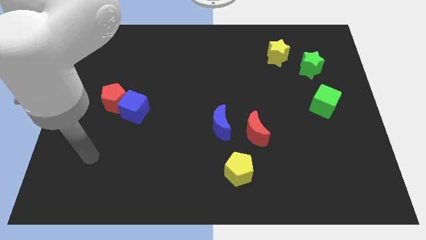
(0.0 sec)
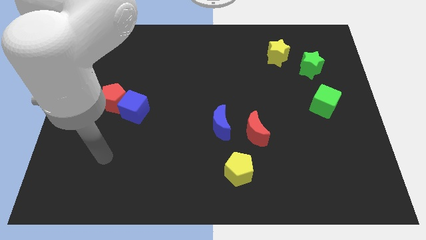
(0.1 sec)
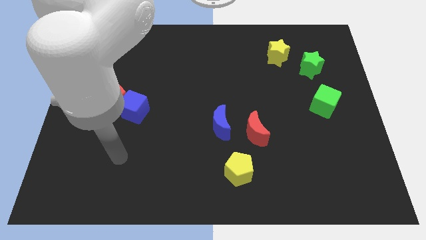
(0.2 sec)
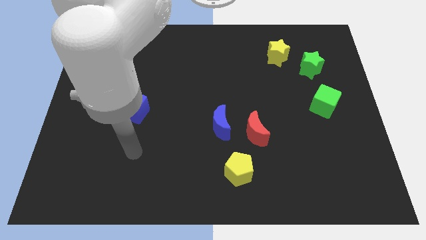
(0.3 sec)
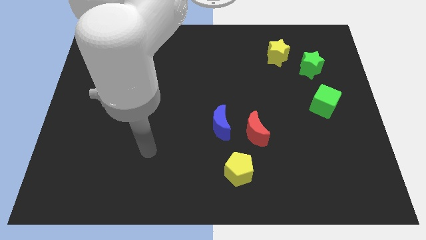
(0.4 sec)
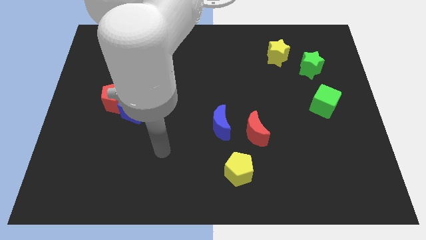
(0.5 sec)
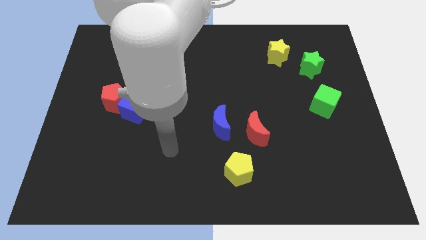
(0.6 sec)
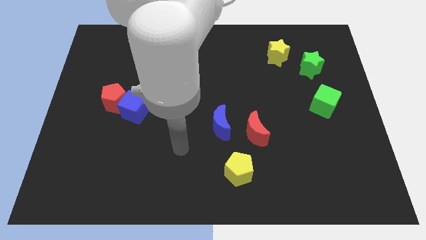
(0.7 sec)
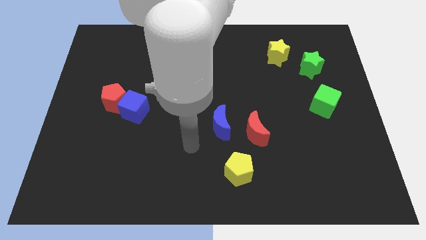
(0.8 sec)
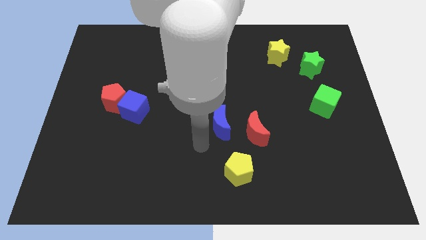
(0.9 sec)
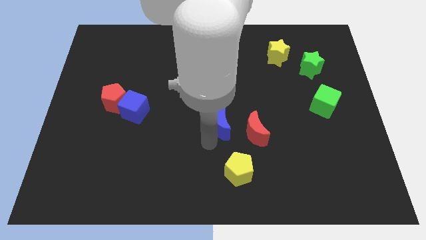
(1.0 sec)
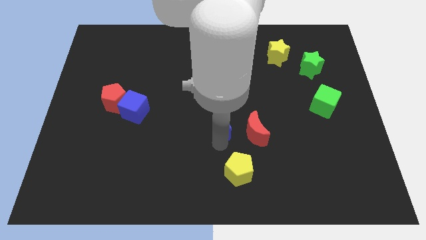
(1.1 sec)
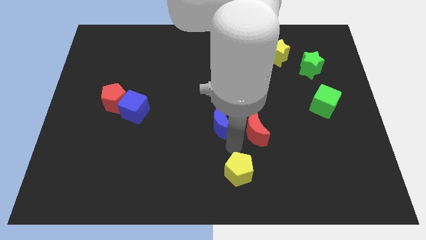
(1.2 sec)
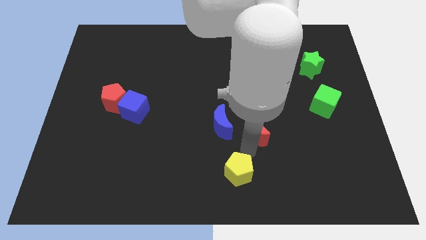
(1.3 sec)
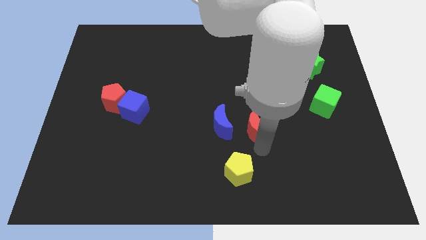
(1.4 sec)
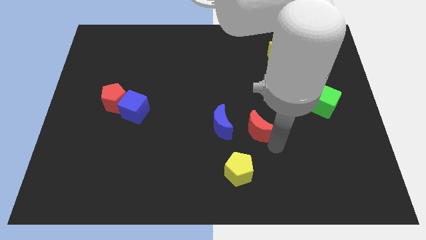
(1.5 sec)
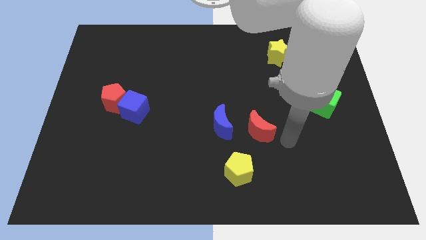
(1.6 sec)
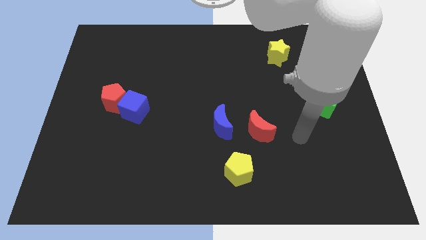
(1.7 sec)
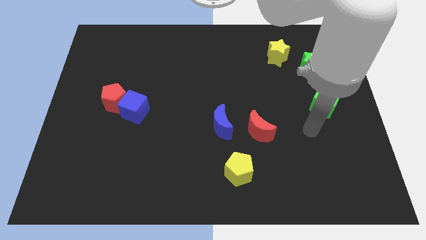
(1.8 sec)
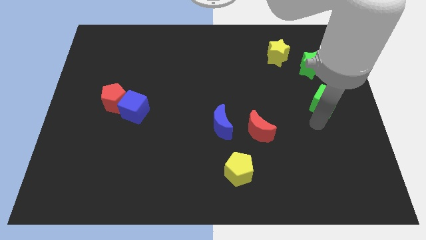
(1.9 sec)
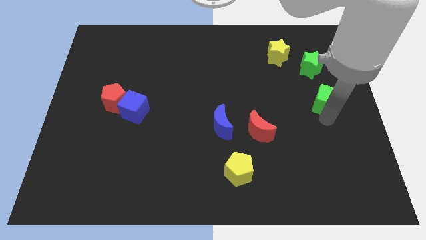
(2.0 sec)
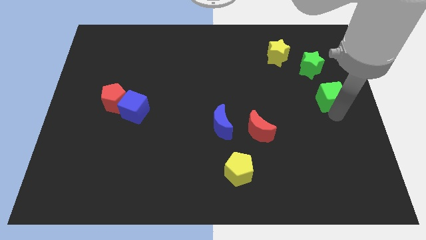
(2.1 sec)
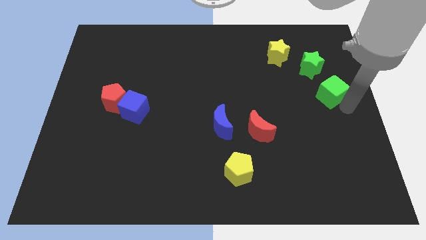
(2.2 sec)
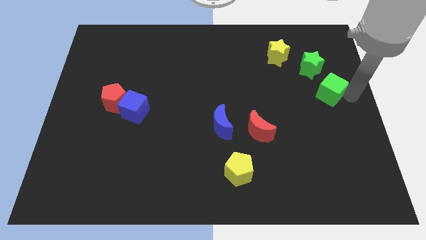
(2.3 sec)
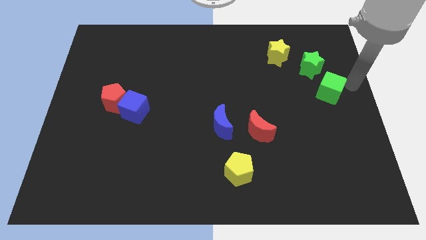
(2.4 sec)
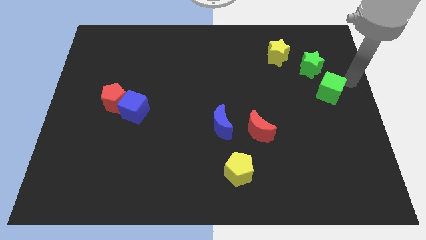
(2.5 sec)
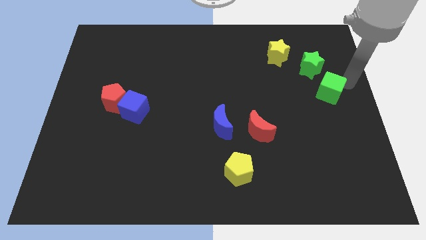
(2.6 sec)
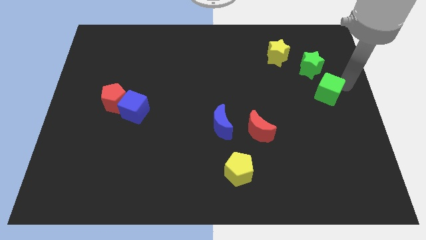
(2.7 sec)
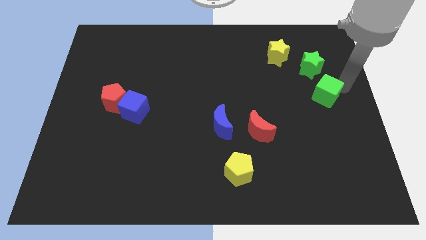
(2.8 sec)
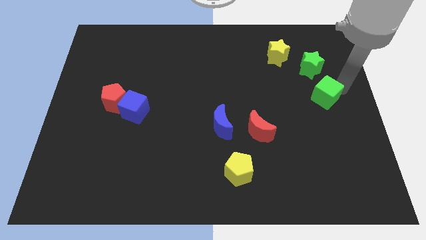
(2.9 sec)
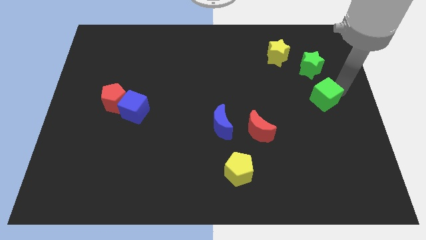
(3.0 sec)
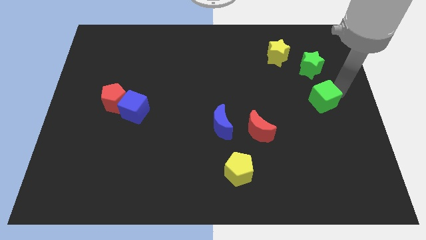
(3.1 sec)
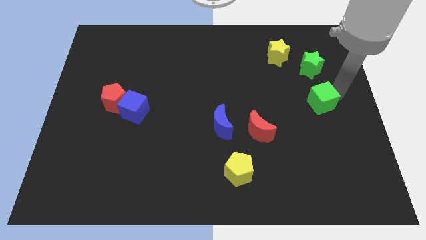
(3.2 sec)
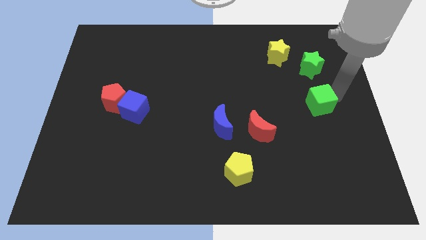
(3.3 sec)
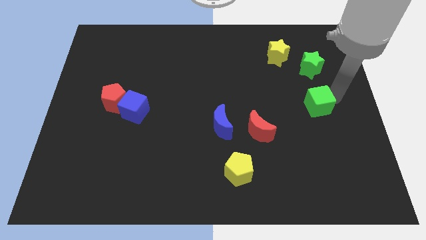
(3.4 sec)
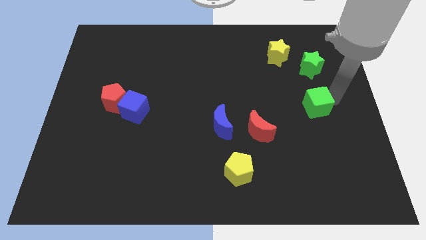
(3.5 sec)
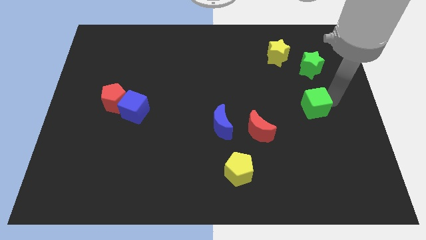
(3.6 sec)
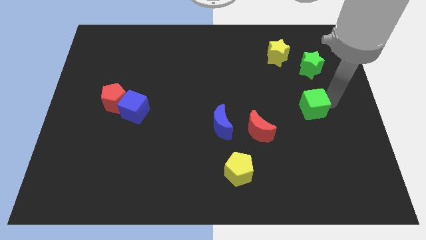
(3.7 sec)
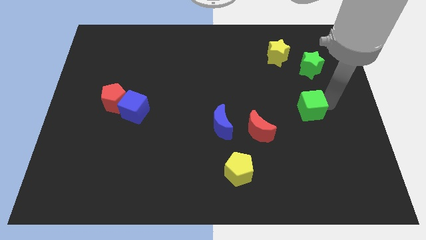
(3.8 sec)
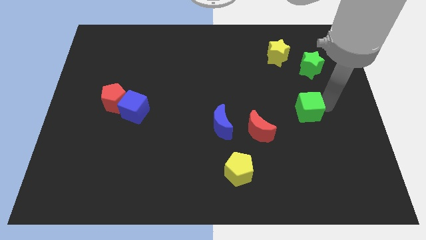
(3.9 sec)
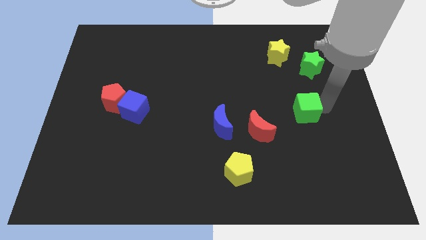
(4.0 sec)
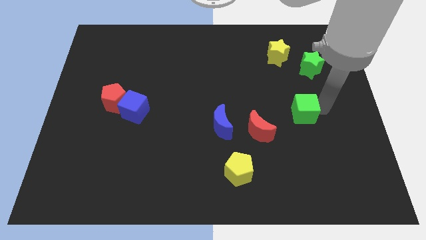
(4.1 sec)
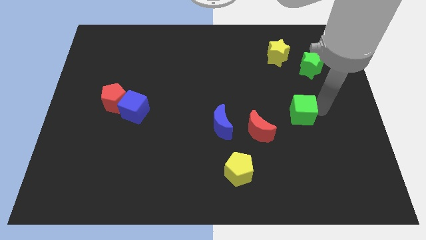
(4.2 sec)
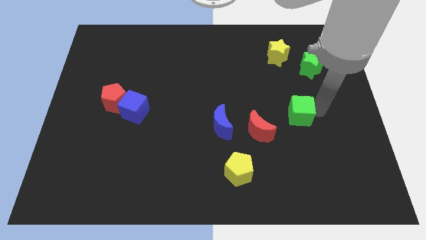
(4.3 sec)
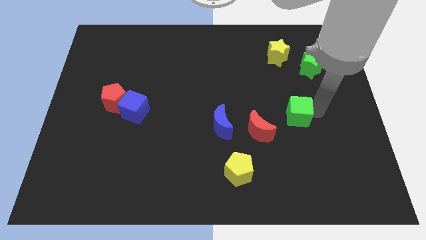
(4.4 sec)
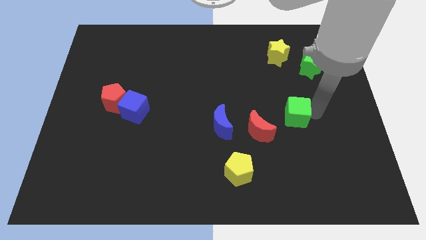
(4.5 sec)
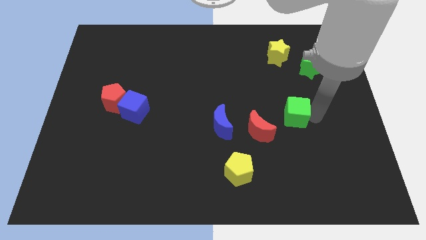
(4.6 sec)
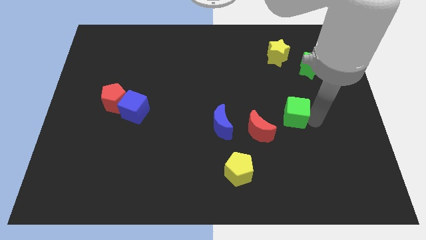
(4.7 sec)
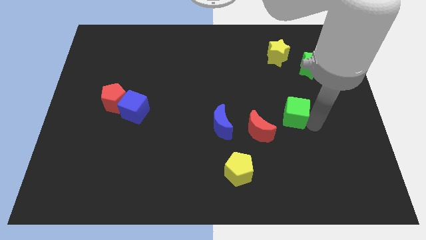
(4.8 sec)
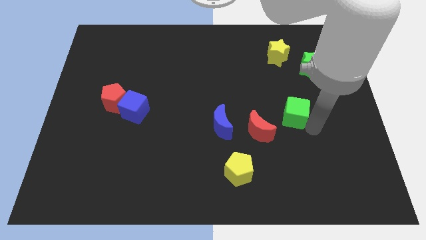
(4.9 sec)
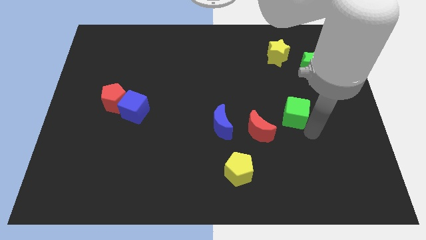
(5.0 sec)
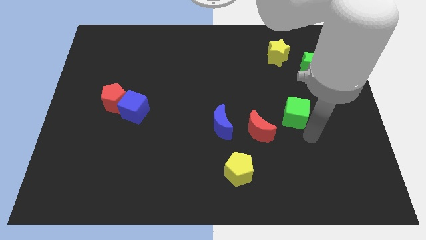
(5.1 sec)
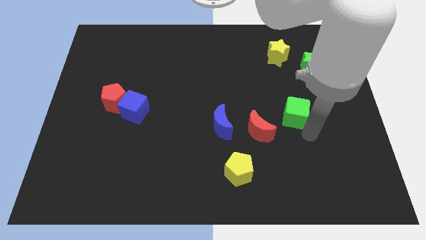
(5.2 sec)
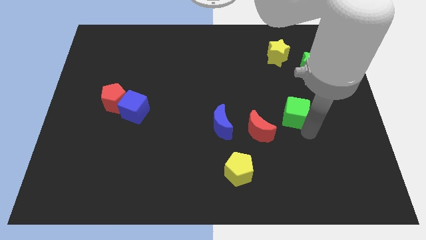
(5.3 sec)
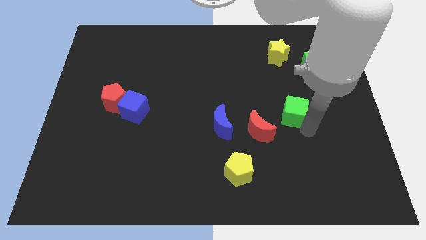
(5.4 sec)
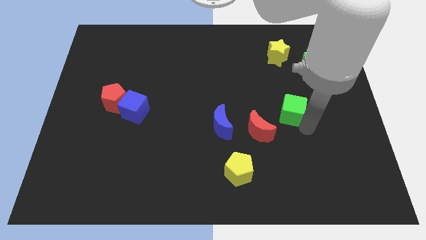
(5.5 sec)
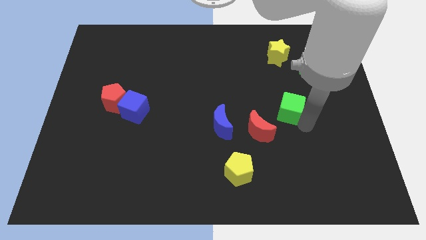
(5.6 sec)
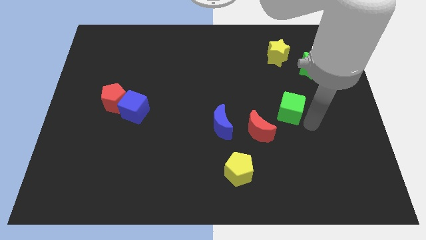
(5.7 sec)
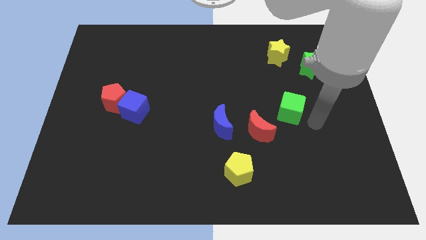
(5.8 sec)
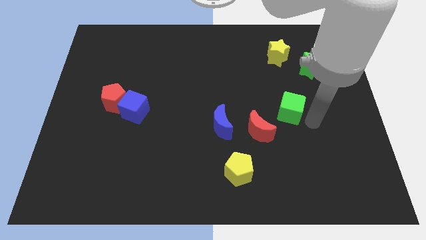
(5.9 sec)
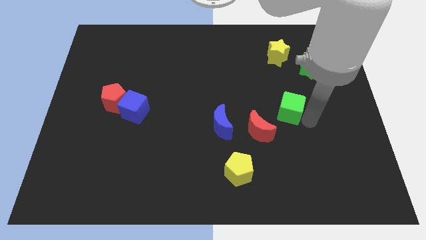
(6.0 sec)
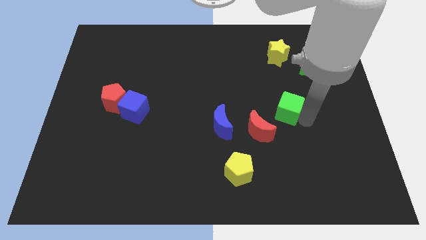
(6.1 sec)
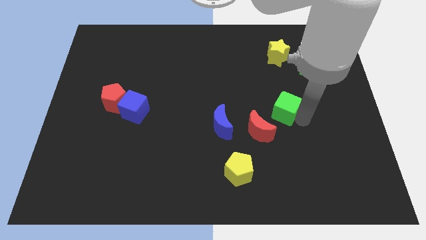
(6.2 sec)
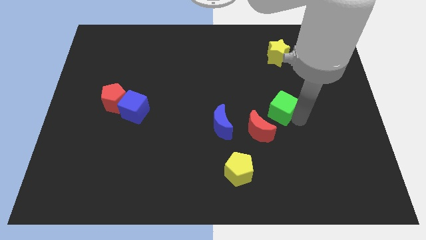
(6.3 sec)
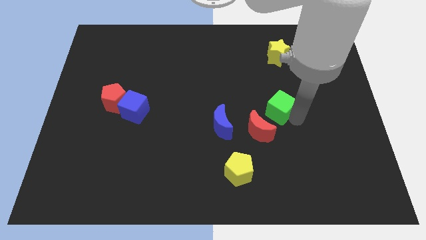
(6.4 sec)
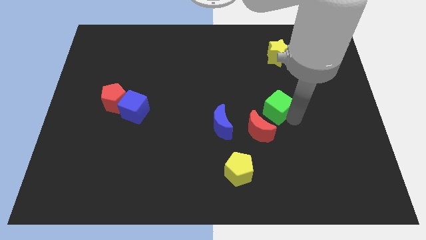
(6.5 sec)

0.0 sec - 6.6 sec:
slide the green cube above the red moon

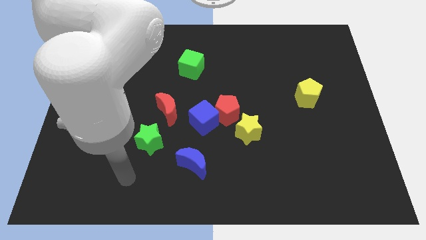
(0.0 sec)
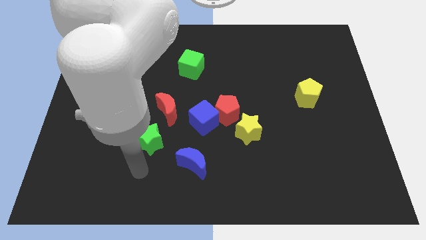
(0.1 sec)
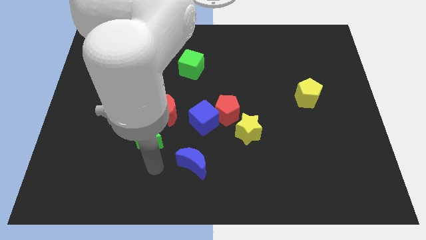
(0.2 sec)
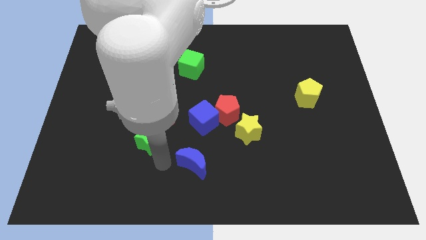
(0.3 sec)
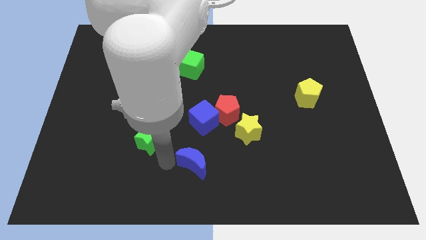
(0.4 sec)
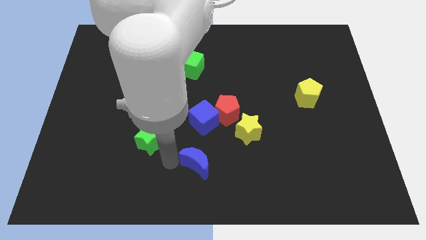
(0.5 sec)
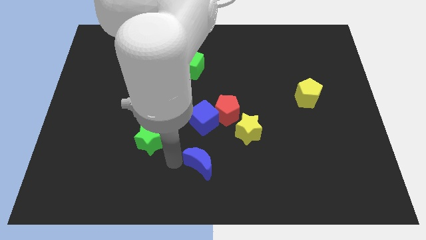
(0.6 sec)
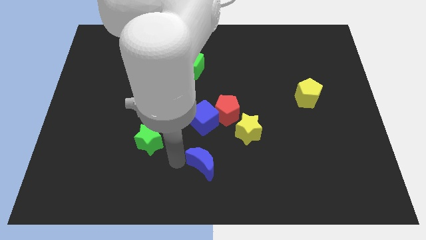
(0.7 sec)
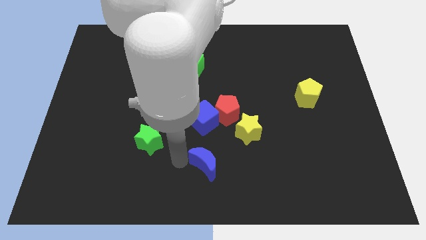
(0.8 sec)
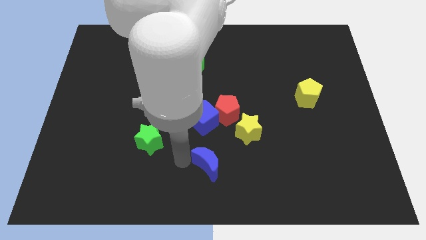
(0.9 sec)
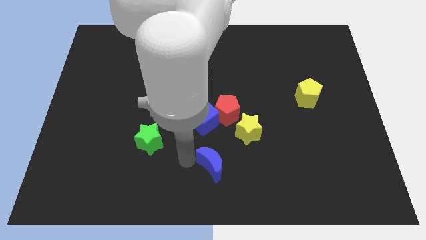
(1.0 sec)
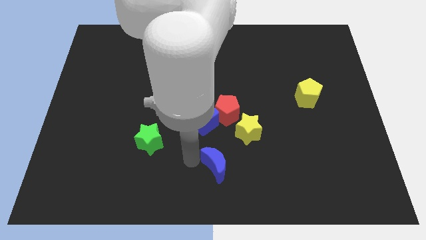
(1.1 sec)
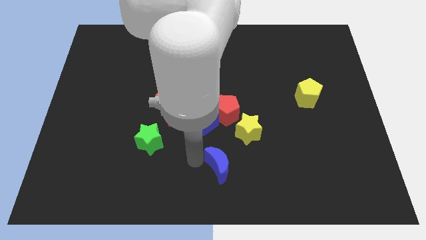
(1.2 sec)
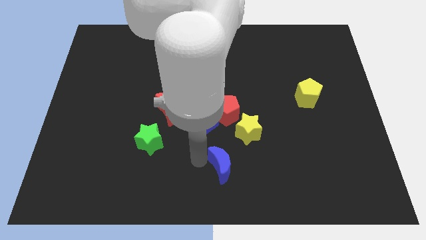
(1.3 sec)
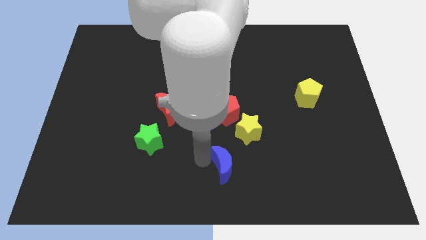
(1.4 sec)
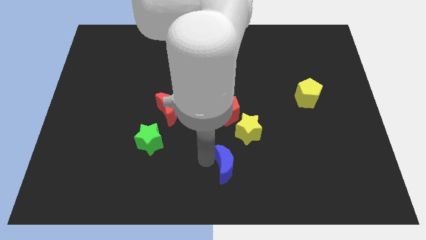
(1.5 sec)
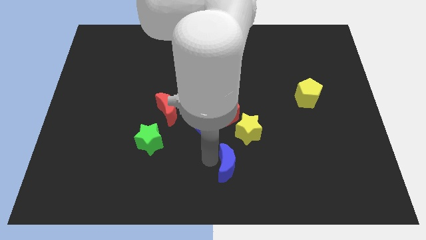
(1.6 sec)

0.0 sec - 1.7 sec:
put the blue moon to the bottom side of the yellow star
